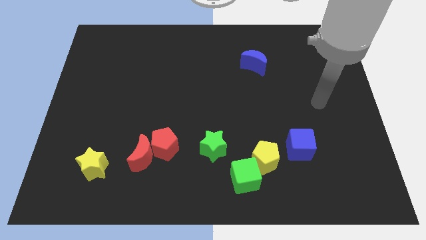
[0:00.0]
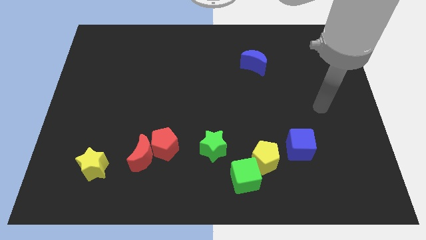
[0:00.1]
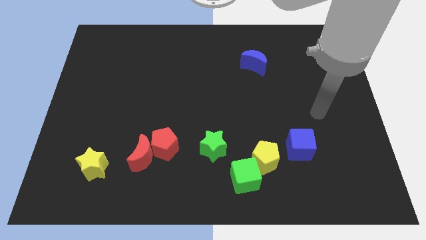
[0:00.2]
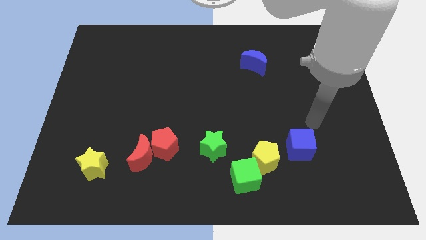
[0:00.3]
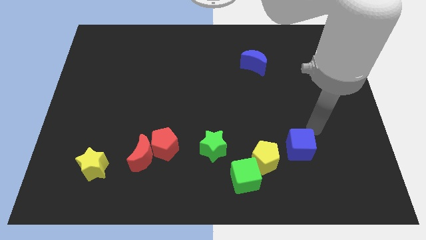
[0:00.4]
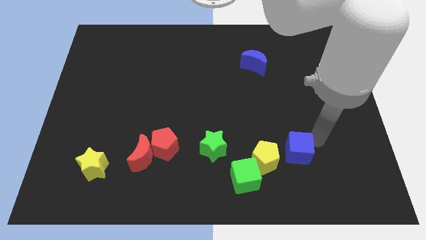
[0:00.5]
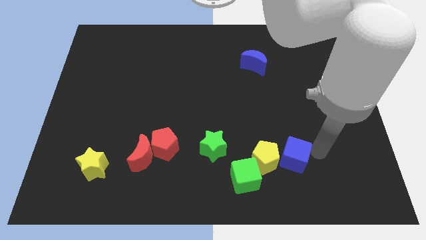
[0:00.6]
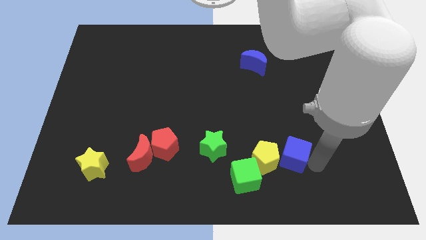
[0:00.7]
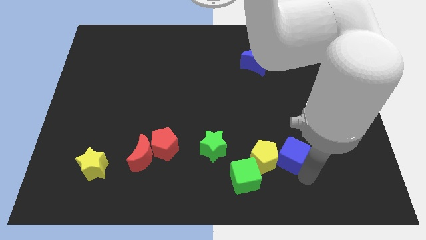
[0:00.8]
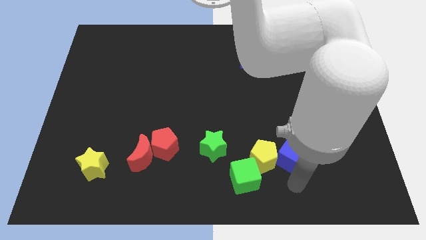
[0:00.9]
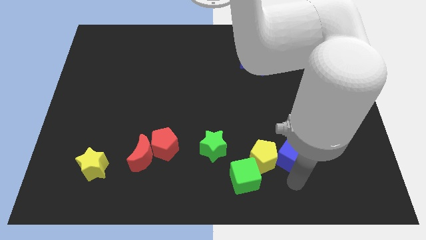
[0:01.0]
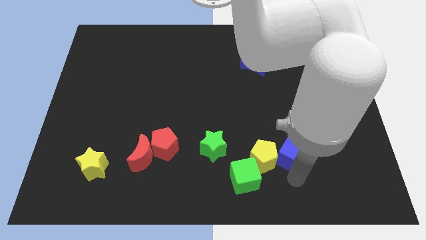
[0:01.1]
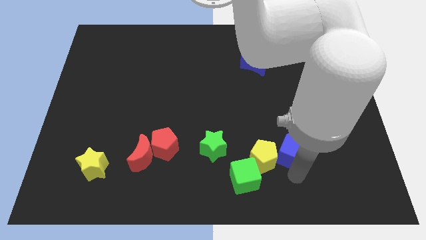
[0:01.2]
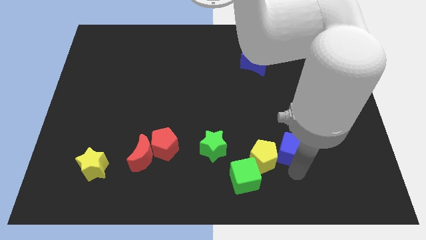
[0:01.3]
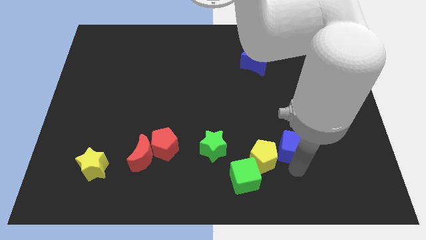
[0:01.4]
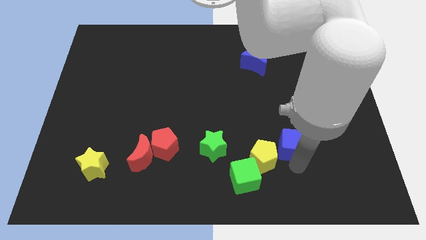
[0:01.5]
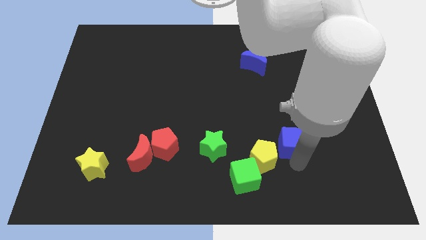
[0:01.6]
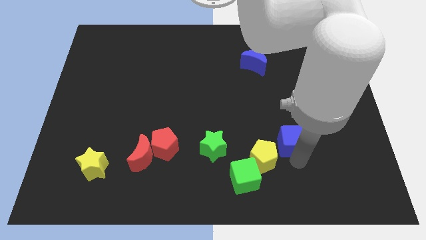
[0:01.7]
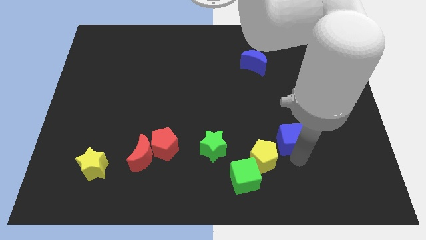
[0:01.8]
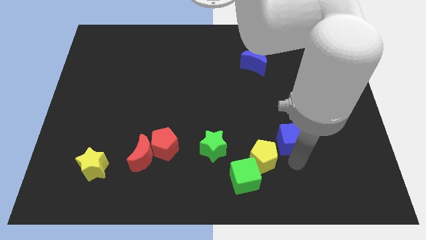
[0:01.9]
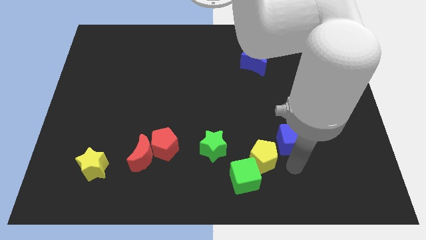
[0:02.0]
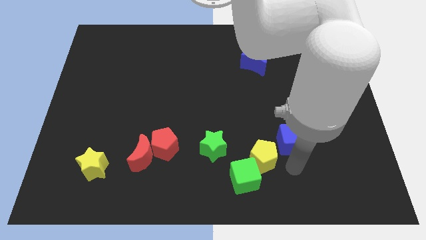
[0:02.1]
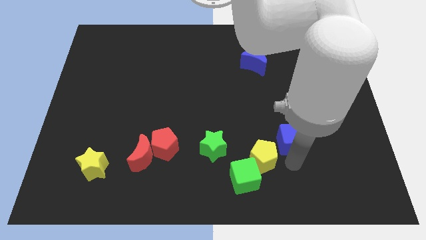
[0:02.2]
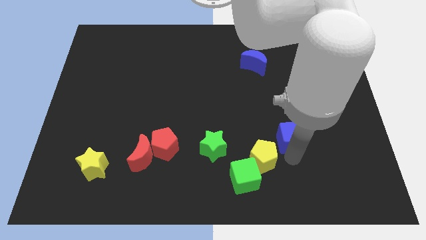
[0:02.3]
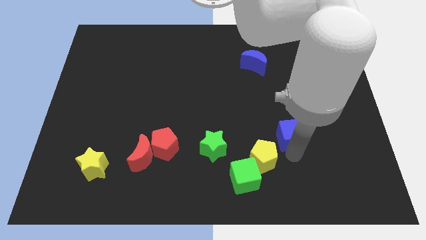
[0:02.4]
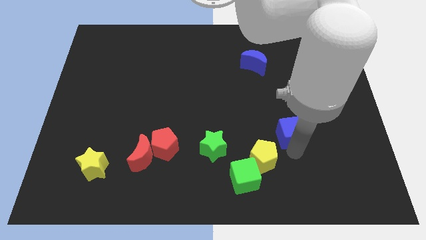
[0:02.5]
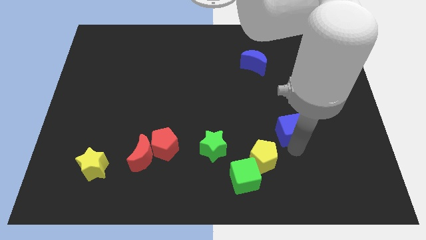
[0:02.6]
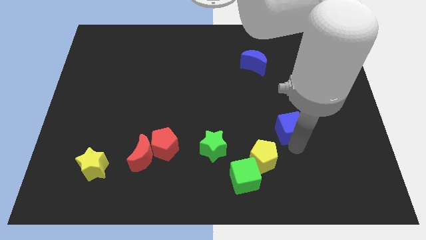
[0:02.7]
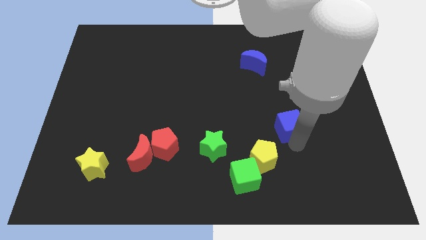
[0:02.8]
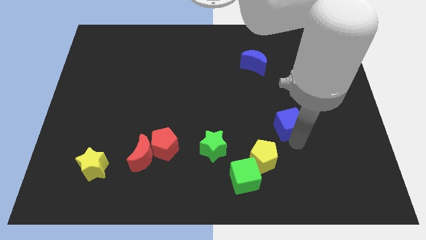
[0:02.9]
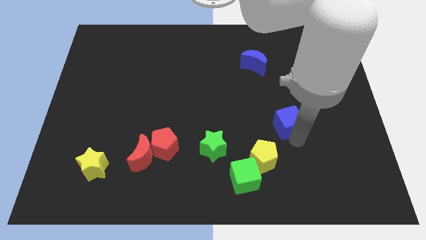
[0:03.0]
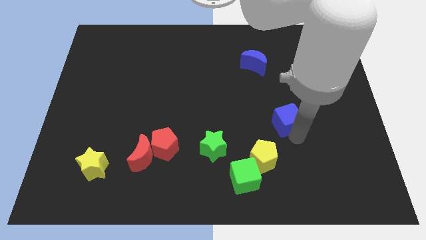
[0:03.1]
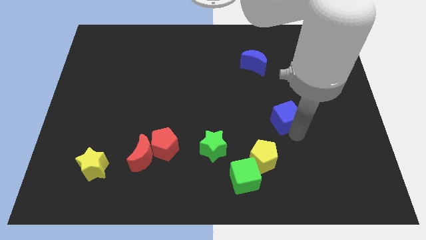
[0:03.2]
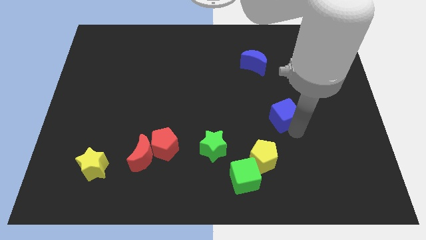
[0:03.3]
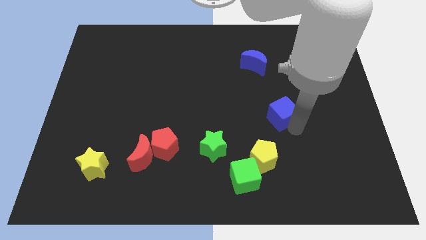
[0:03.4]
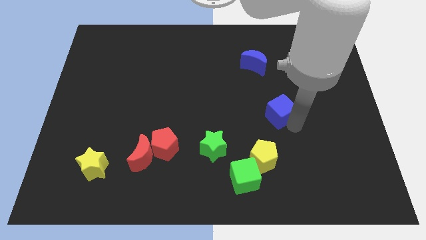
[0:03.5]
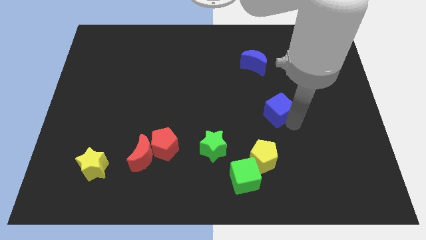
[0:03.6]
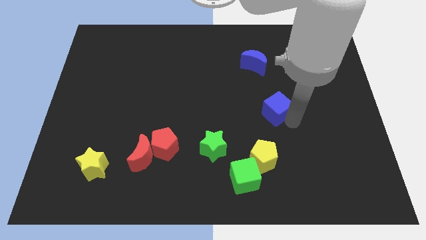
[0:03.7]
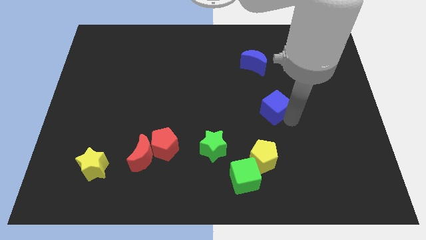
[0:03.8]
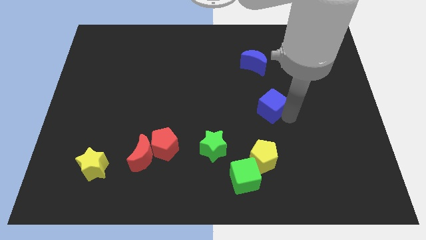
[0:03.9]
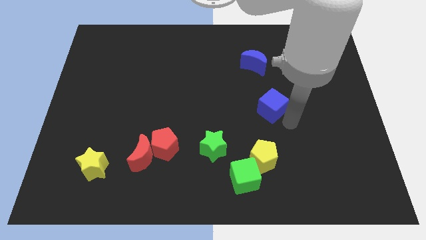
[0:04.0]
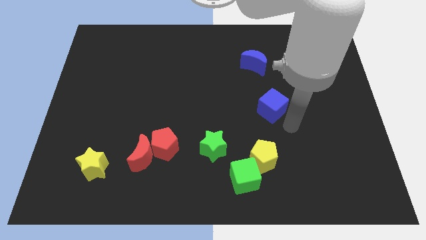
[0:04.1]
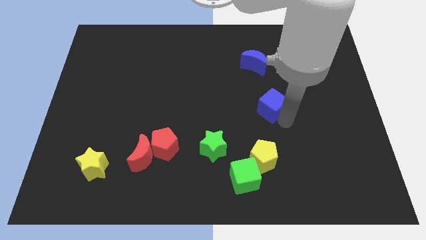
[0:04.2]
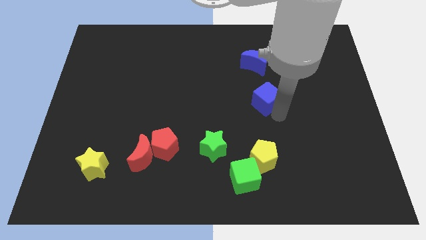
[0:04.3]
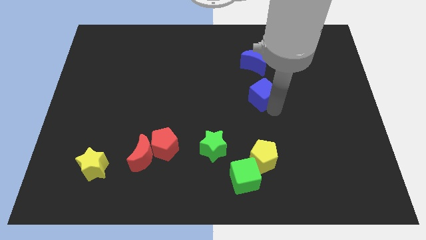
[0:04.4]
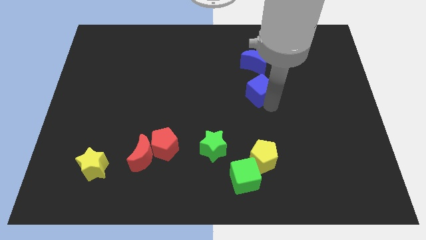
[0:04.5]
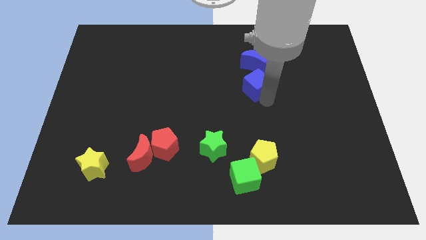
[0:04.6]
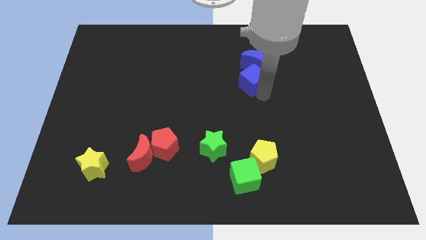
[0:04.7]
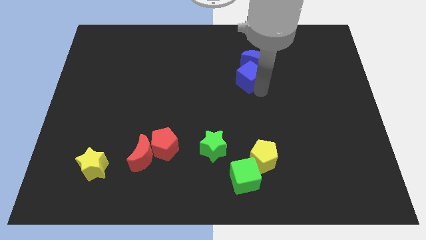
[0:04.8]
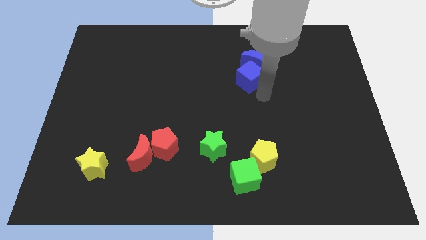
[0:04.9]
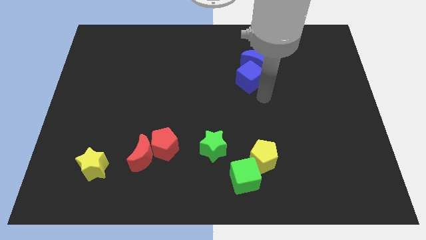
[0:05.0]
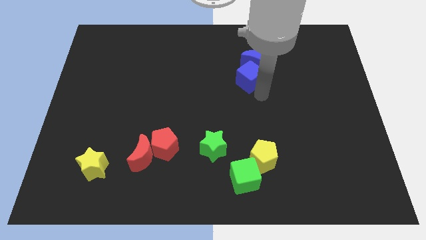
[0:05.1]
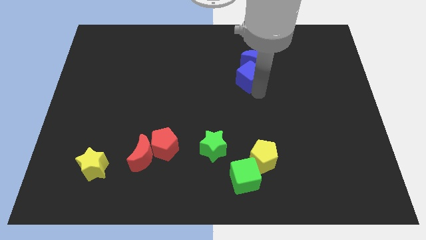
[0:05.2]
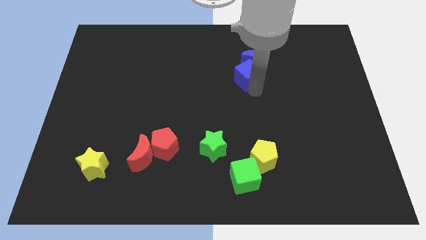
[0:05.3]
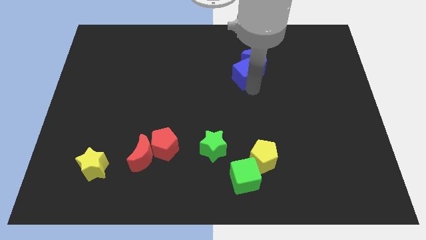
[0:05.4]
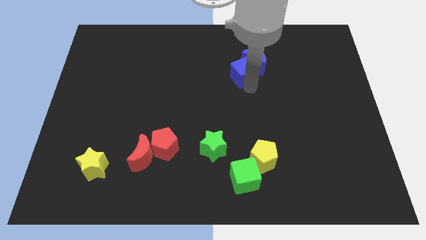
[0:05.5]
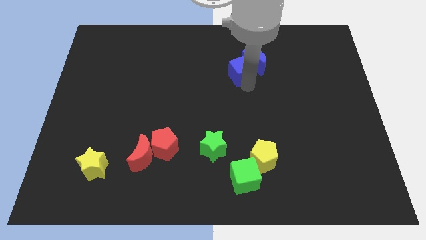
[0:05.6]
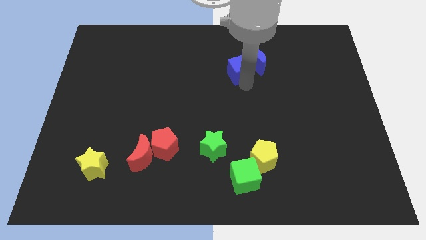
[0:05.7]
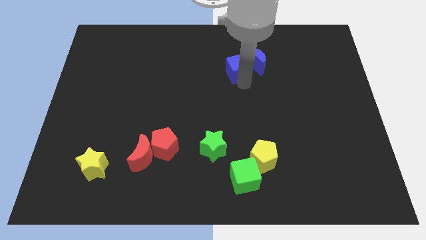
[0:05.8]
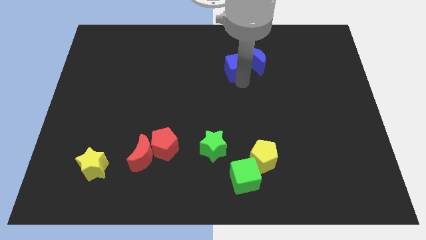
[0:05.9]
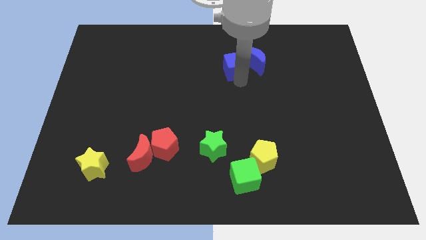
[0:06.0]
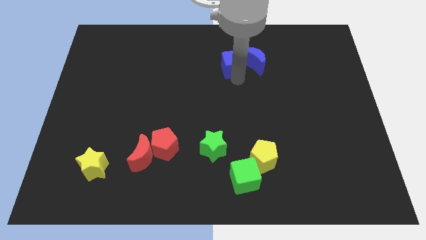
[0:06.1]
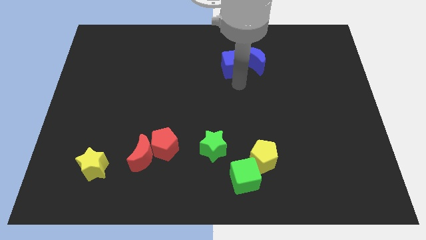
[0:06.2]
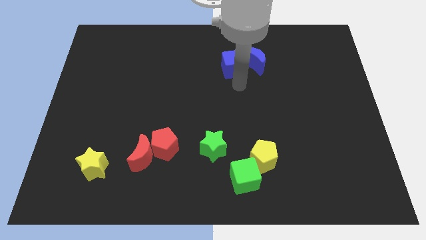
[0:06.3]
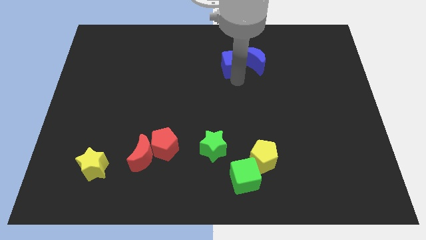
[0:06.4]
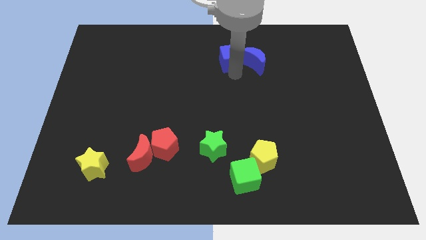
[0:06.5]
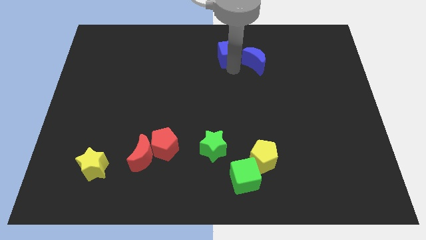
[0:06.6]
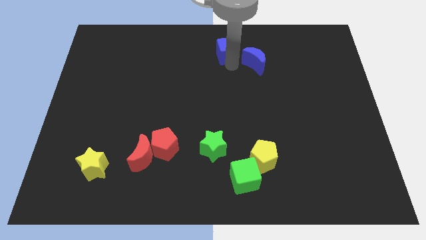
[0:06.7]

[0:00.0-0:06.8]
put the blue cube to the top side

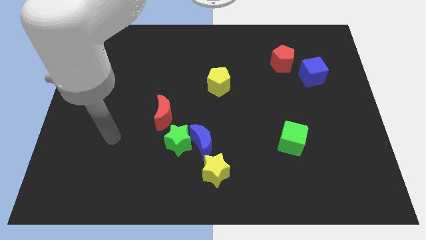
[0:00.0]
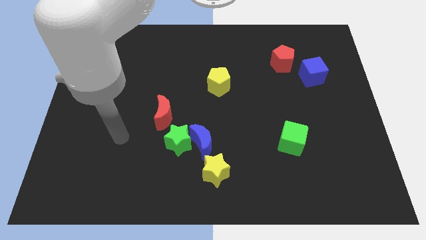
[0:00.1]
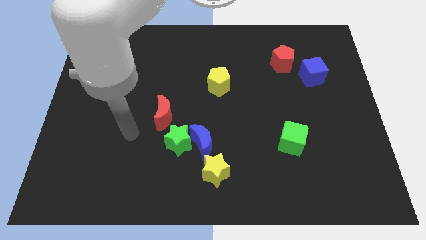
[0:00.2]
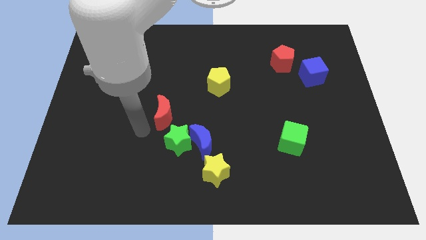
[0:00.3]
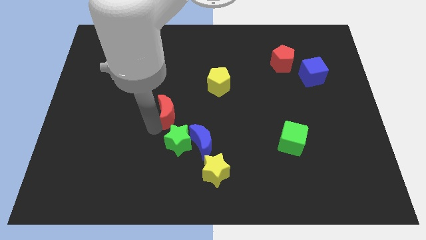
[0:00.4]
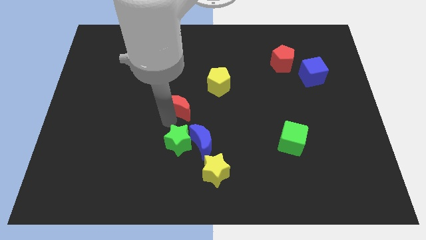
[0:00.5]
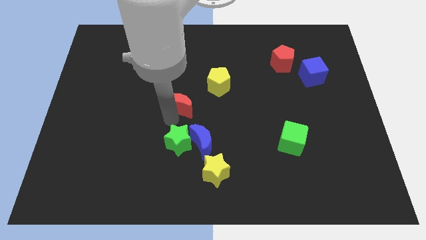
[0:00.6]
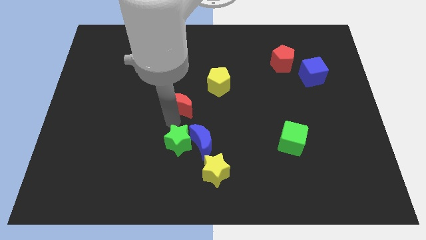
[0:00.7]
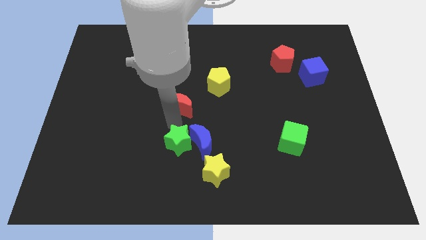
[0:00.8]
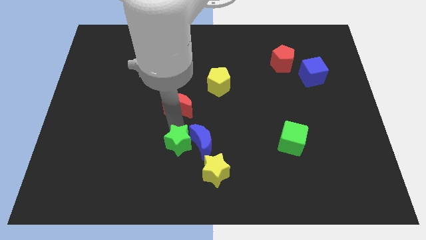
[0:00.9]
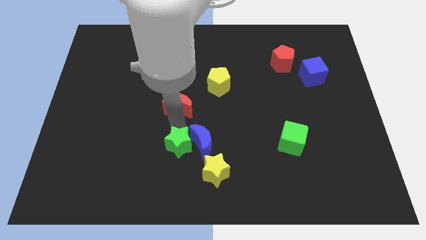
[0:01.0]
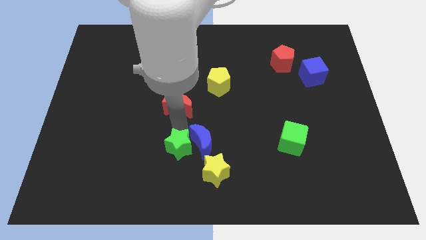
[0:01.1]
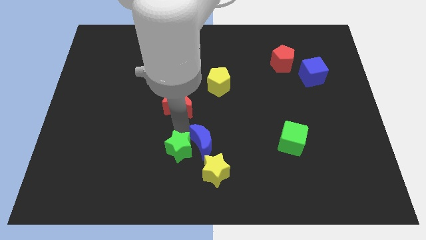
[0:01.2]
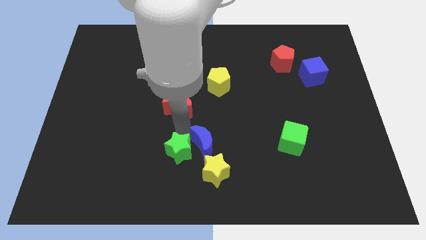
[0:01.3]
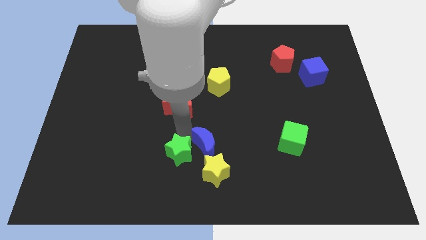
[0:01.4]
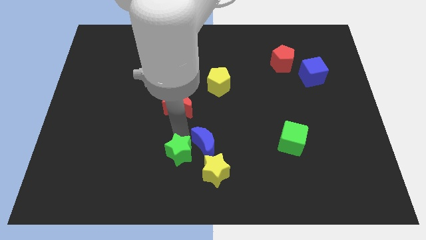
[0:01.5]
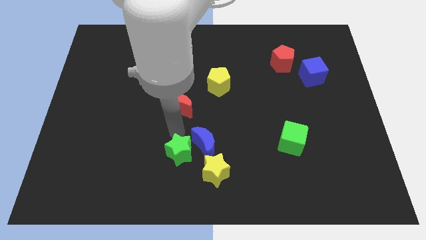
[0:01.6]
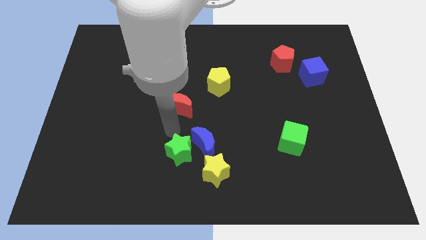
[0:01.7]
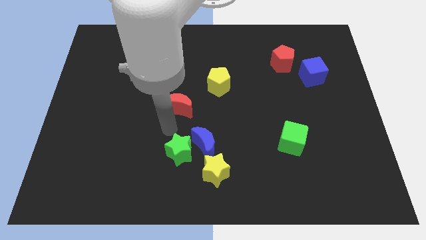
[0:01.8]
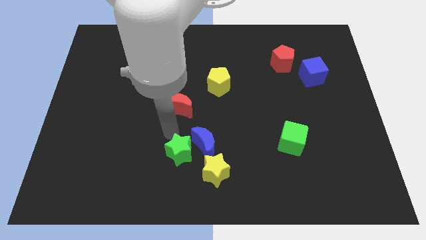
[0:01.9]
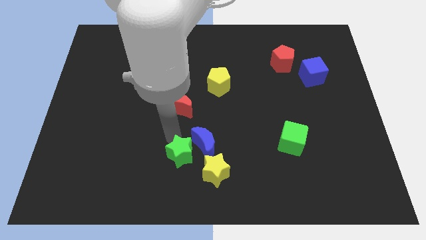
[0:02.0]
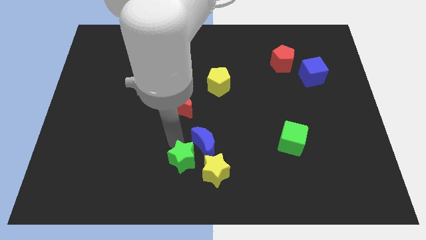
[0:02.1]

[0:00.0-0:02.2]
push the green star to the bottom
